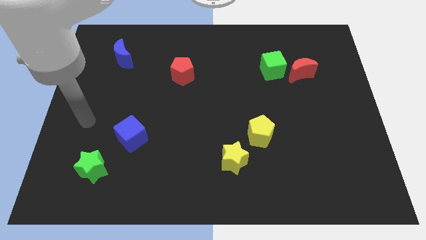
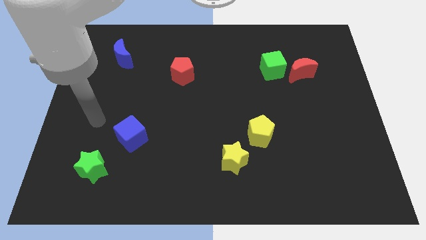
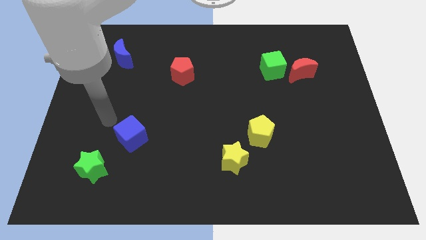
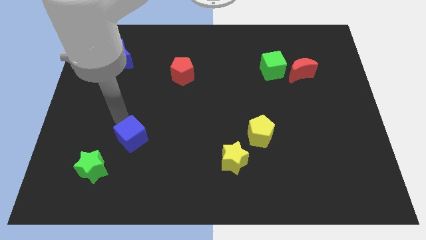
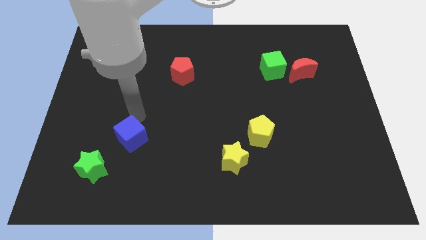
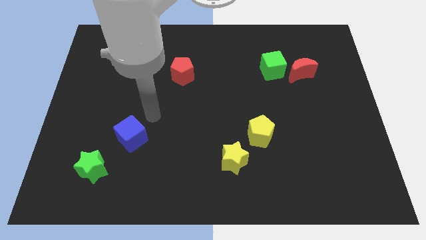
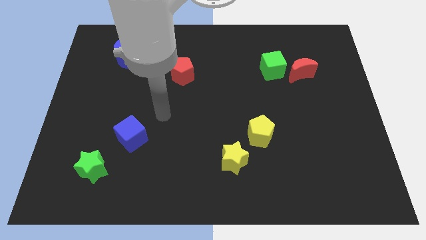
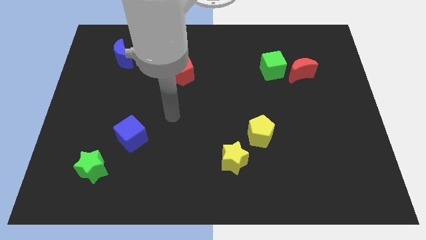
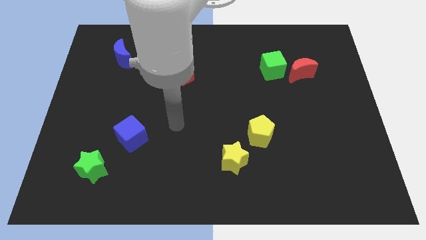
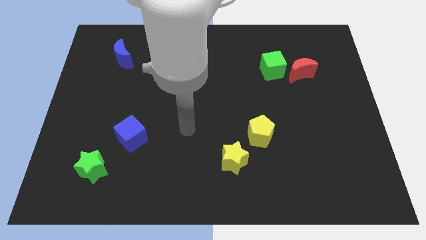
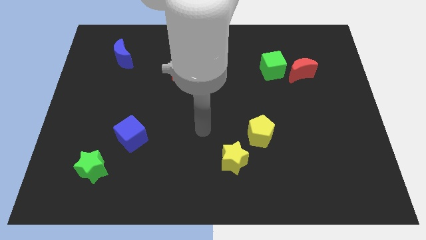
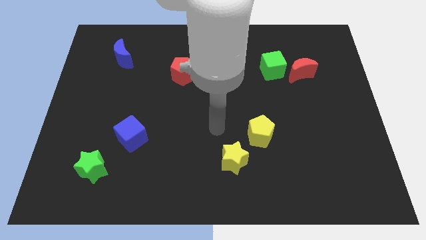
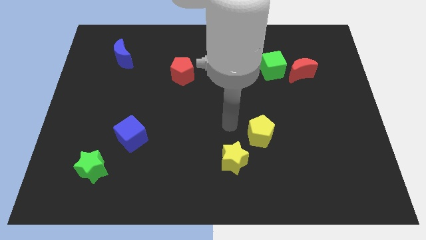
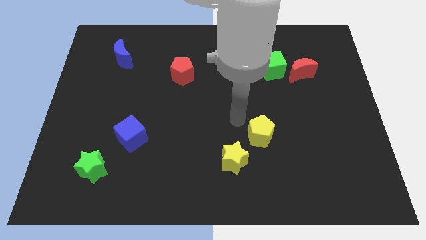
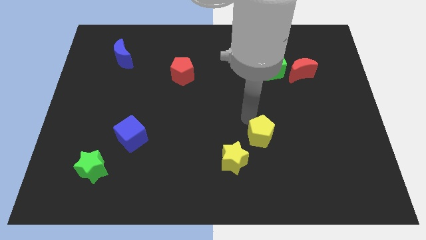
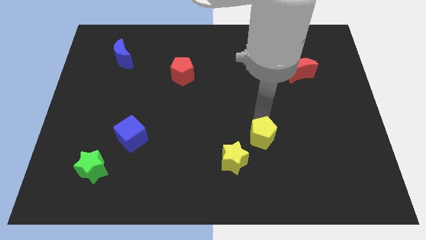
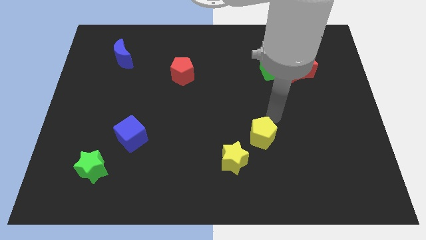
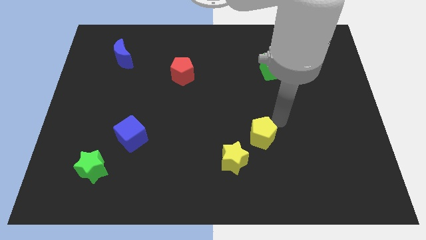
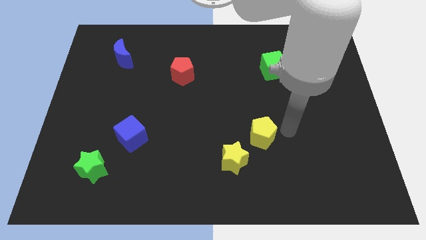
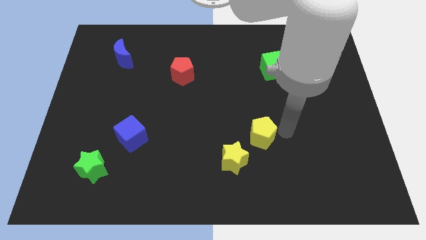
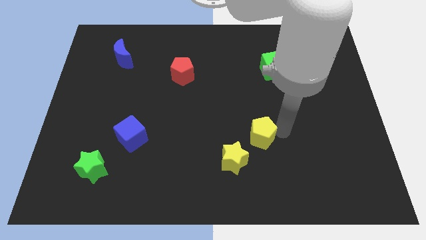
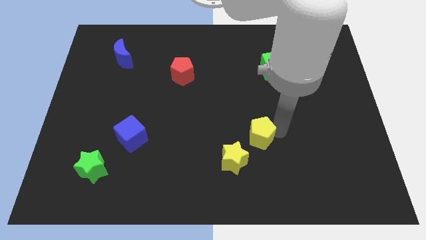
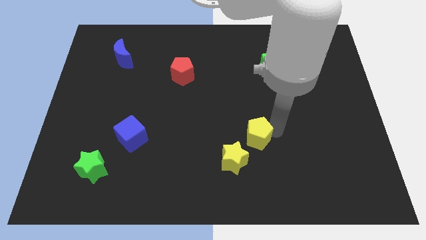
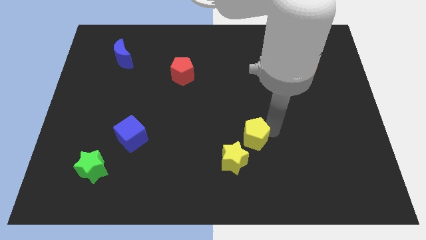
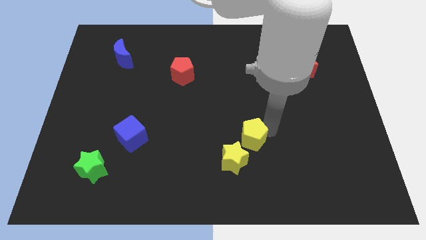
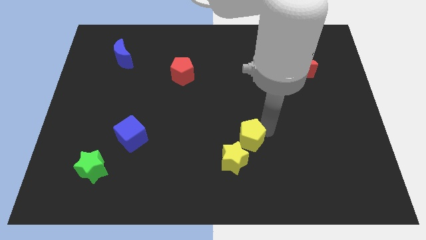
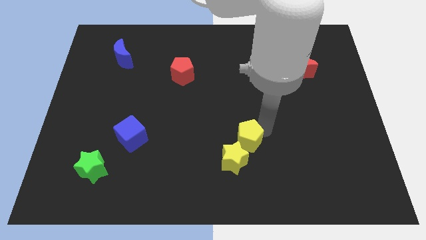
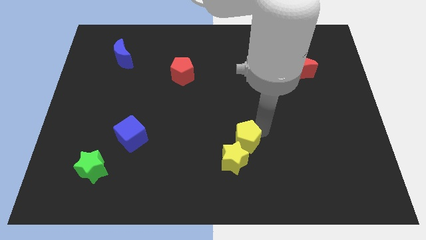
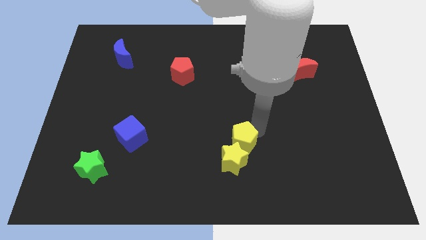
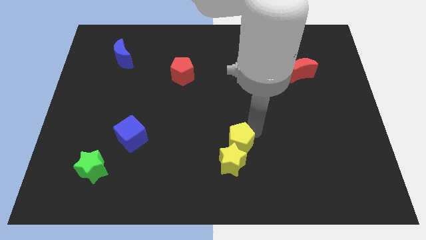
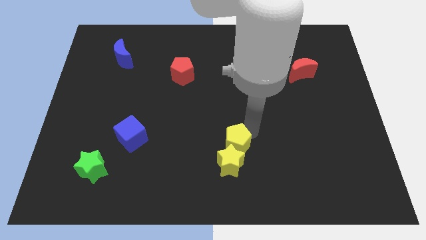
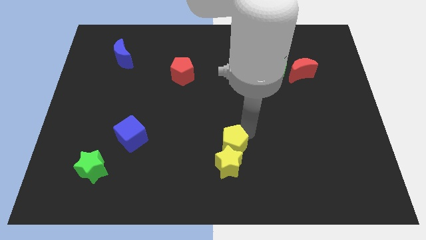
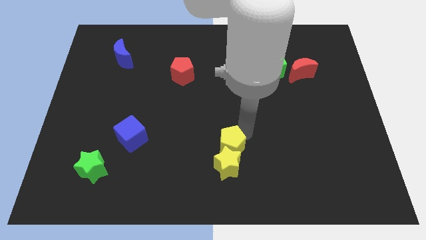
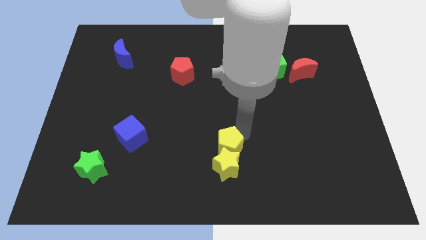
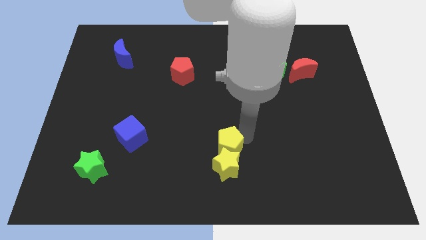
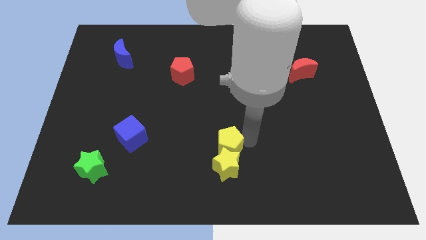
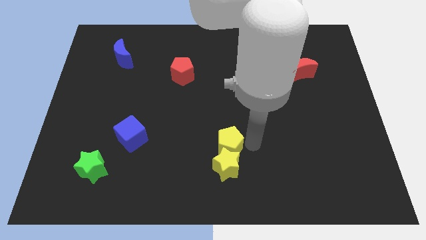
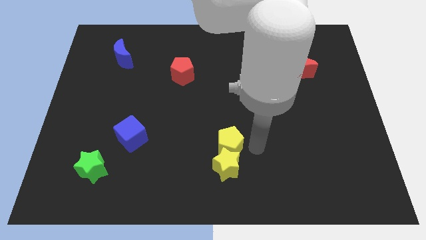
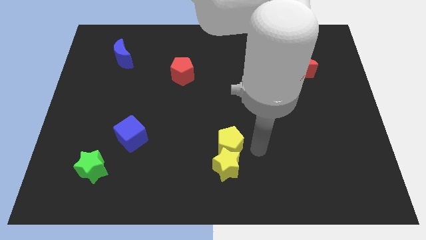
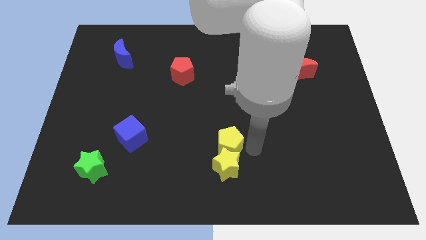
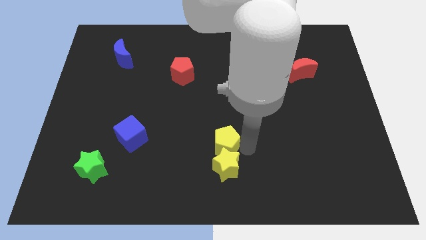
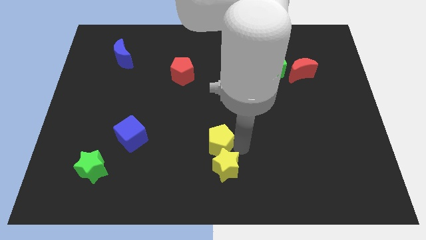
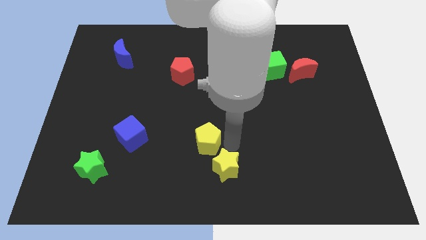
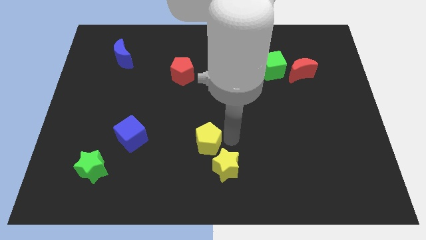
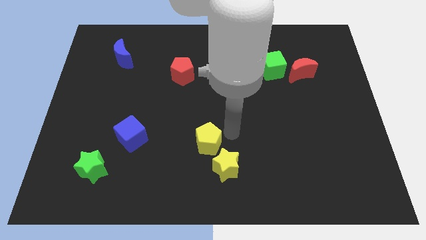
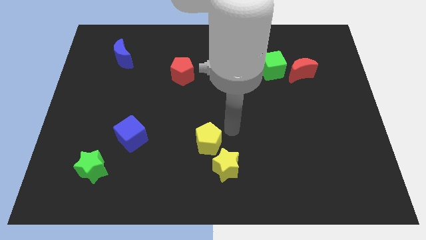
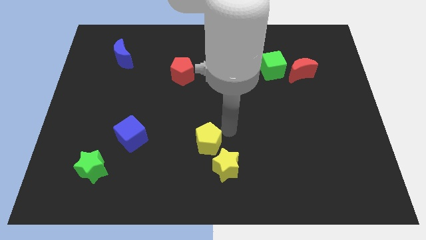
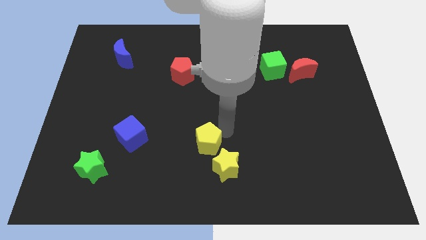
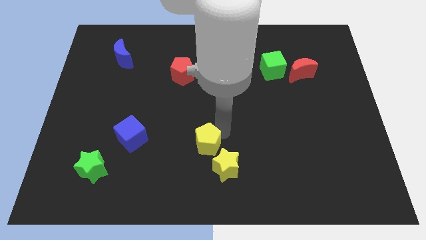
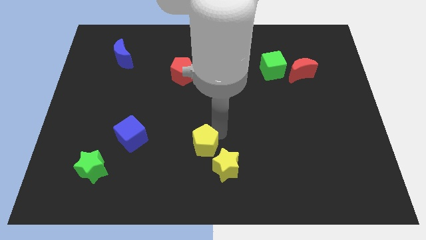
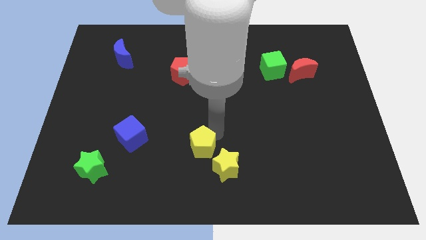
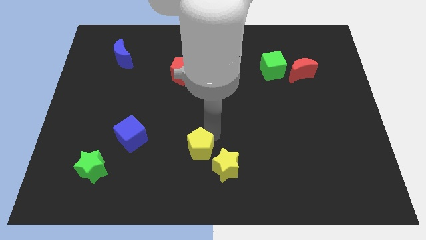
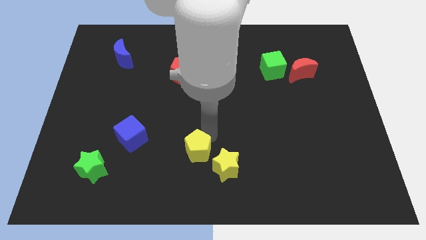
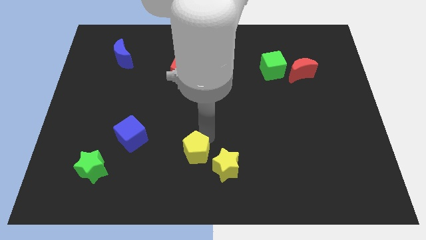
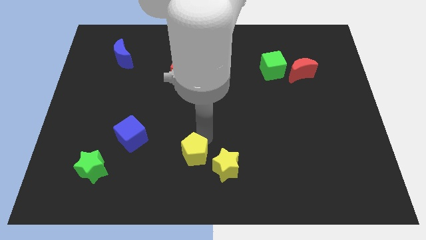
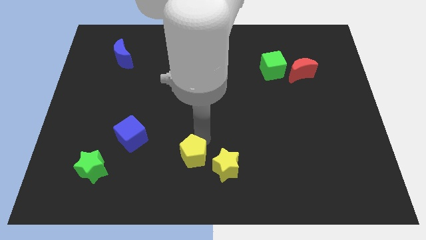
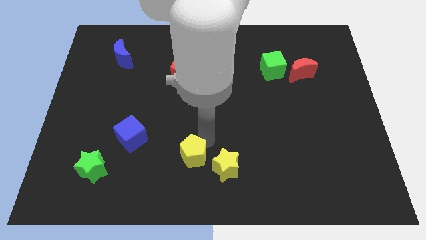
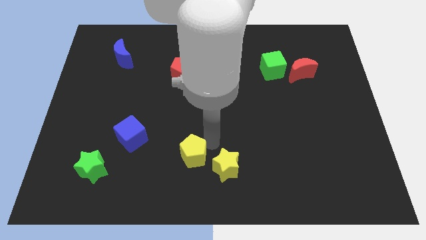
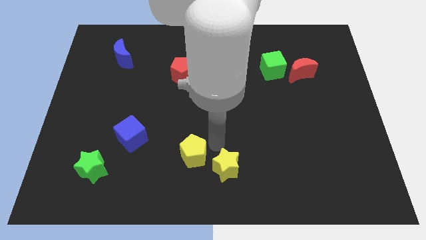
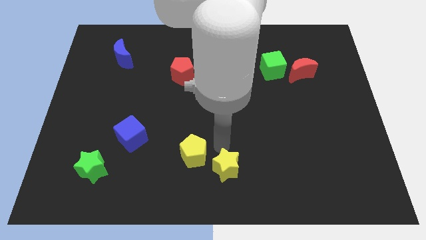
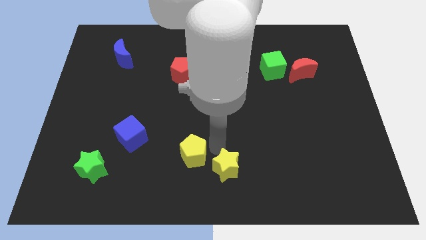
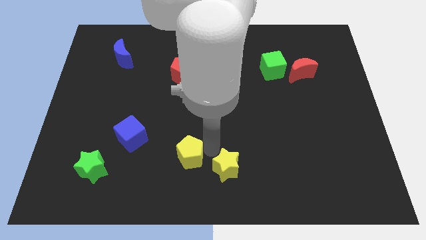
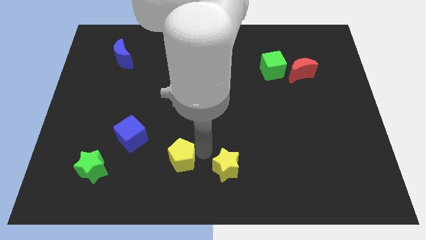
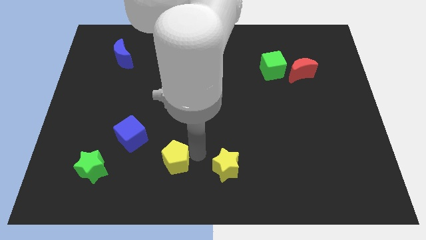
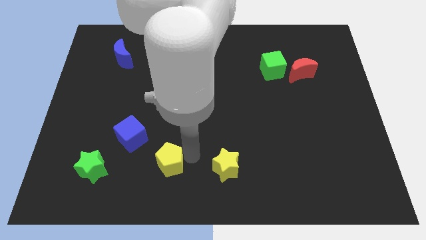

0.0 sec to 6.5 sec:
push the yellow pentagon just right of the green star
